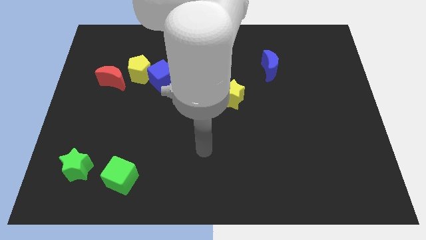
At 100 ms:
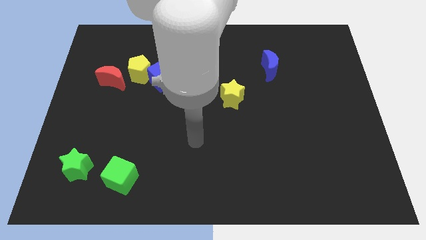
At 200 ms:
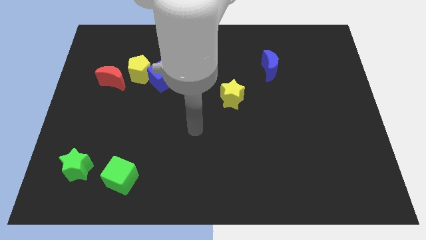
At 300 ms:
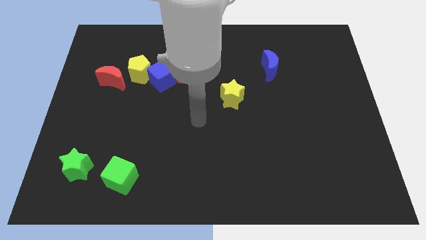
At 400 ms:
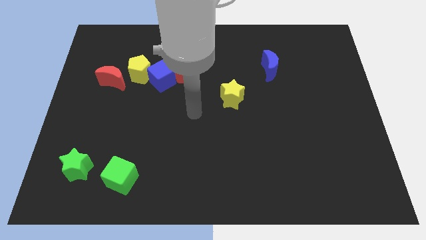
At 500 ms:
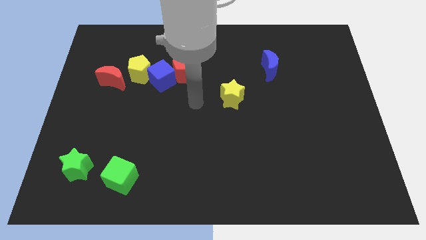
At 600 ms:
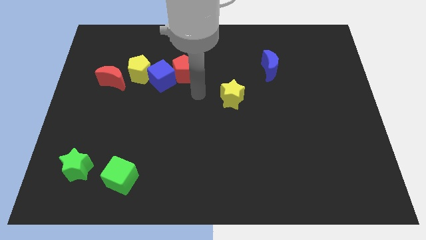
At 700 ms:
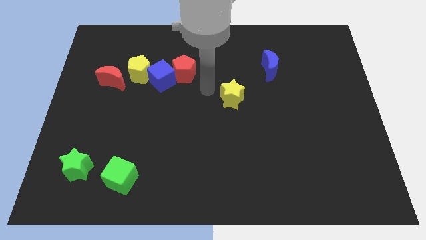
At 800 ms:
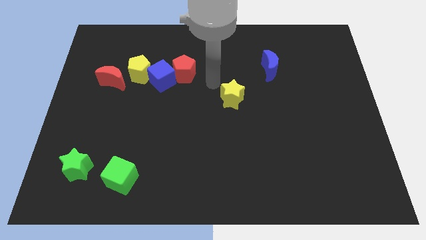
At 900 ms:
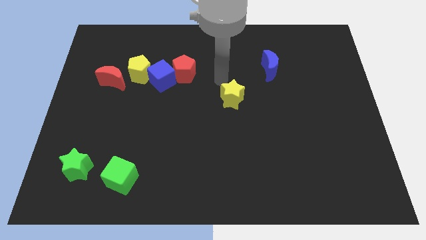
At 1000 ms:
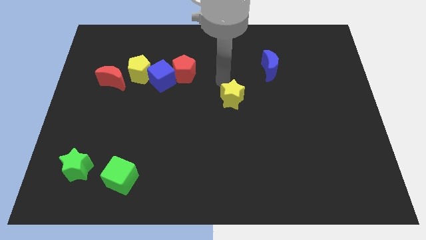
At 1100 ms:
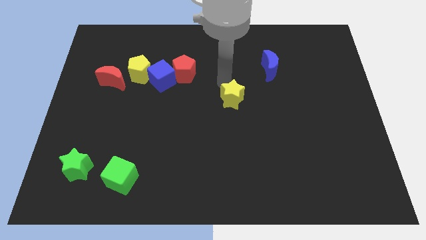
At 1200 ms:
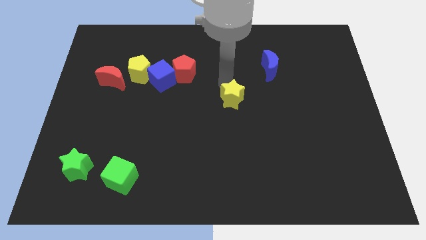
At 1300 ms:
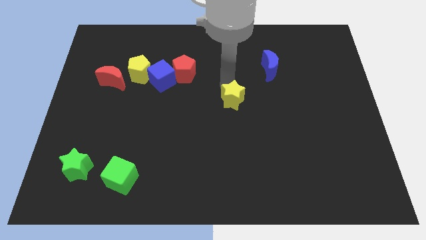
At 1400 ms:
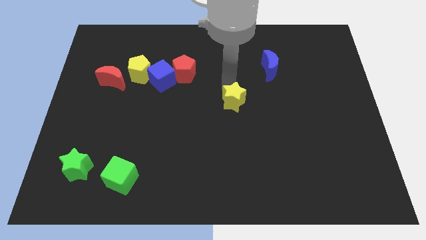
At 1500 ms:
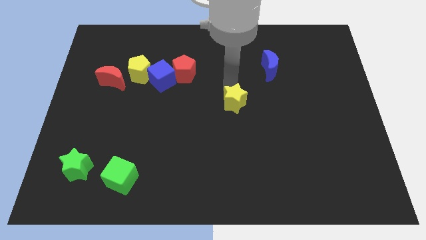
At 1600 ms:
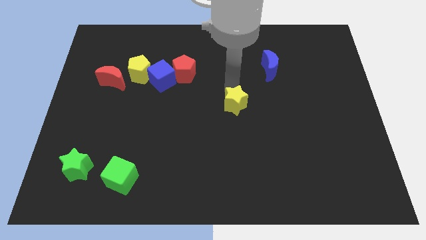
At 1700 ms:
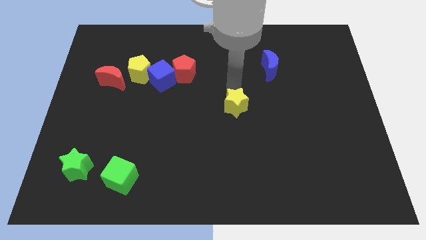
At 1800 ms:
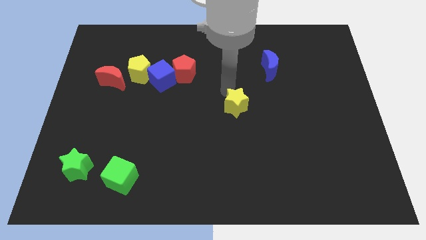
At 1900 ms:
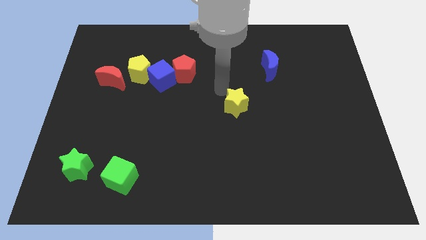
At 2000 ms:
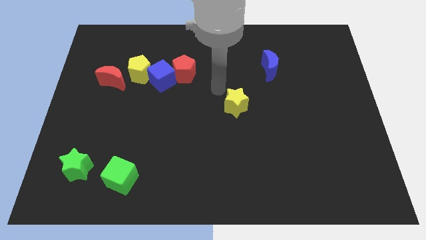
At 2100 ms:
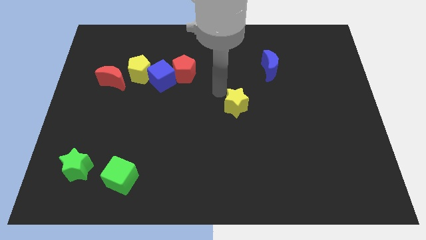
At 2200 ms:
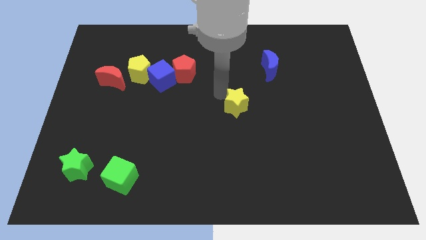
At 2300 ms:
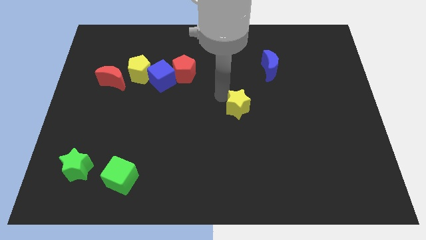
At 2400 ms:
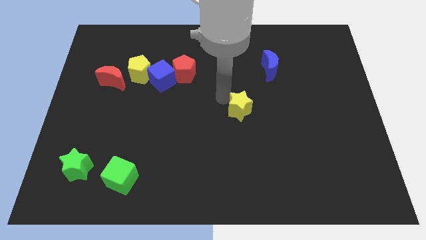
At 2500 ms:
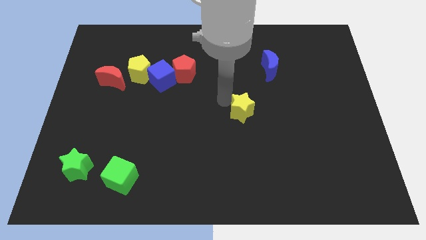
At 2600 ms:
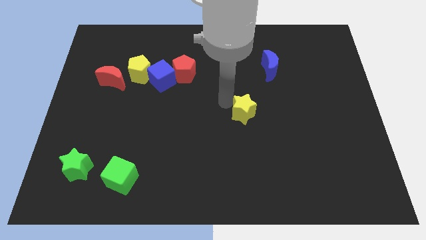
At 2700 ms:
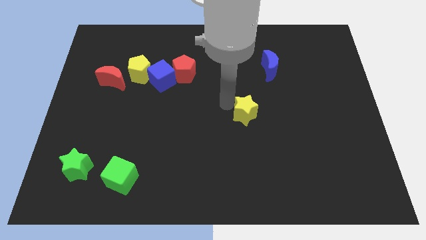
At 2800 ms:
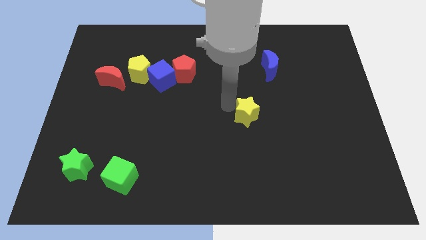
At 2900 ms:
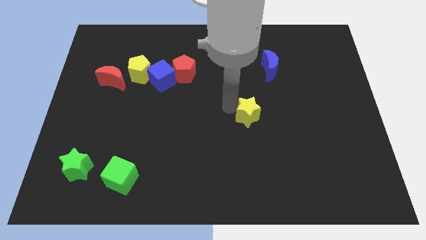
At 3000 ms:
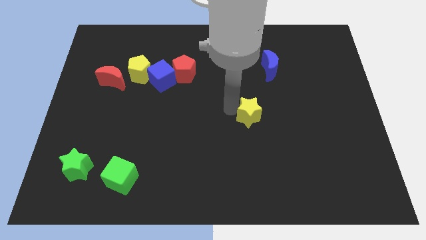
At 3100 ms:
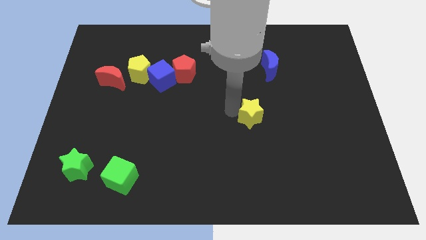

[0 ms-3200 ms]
move the yellow star down and to the right diagonally a little bit

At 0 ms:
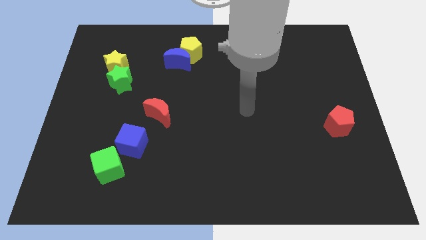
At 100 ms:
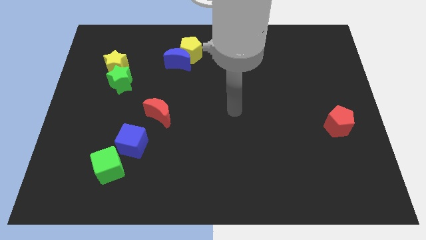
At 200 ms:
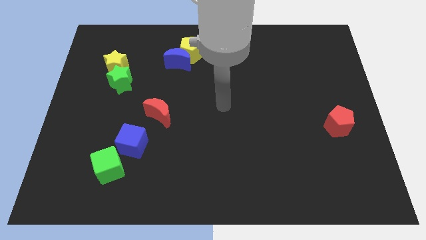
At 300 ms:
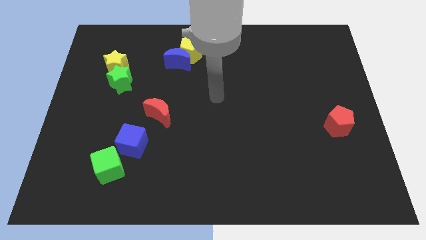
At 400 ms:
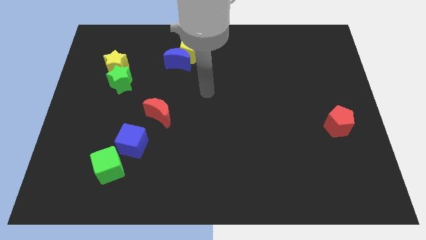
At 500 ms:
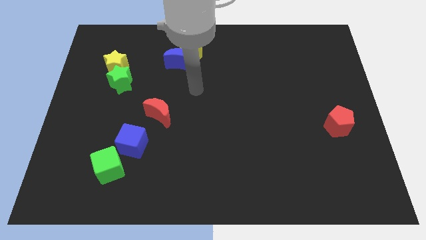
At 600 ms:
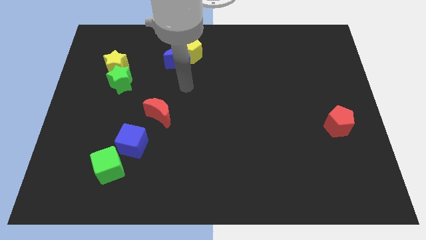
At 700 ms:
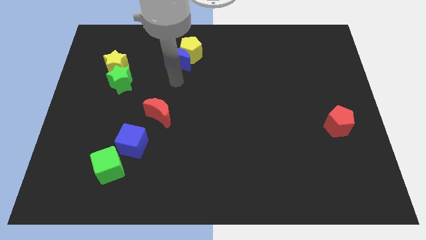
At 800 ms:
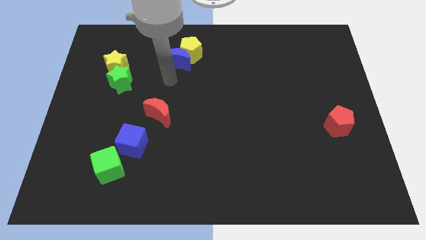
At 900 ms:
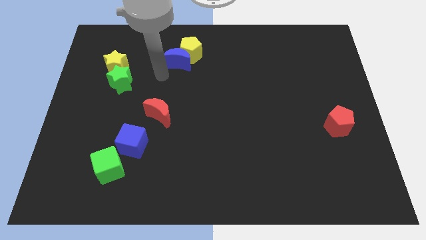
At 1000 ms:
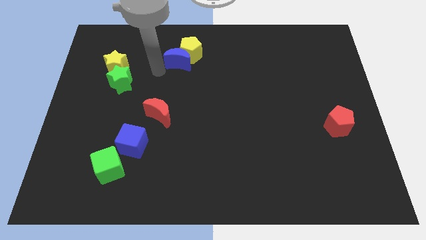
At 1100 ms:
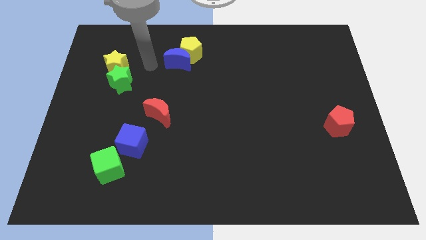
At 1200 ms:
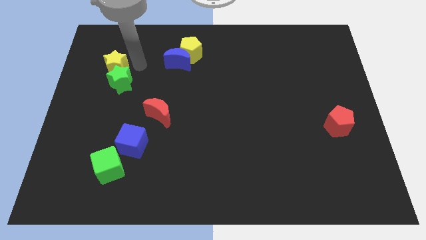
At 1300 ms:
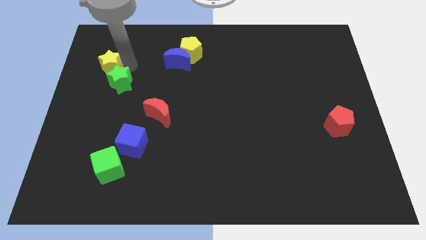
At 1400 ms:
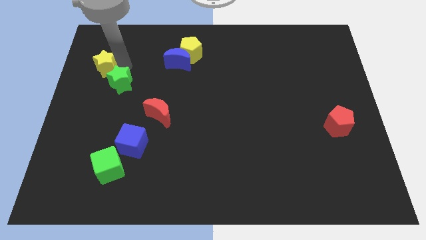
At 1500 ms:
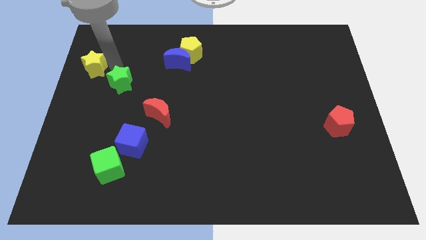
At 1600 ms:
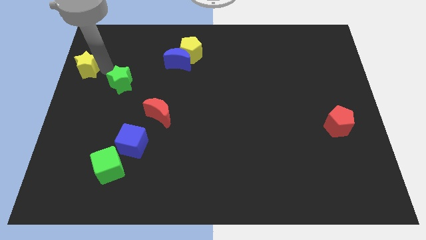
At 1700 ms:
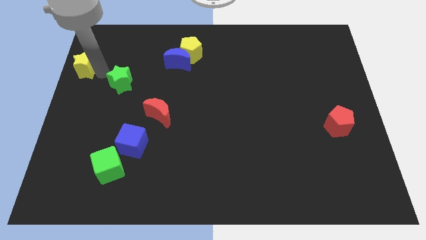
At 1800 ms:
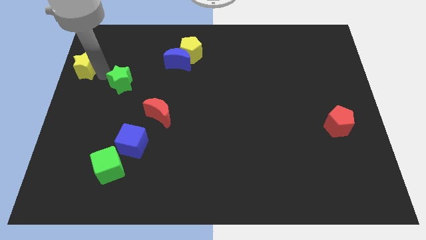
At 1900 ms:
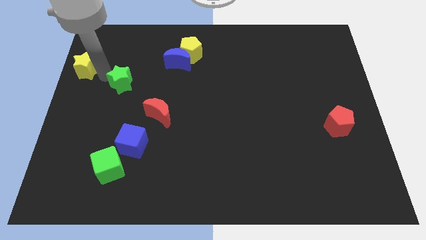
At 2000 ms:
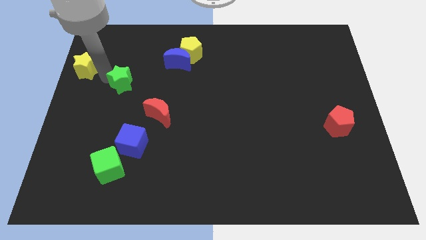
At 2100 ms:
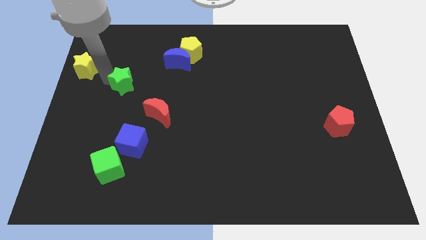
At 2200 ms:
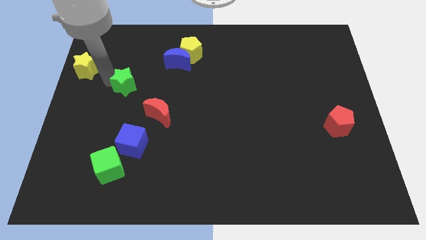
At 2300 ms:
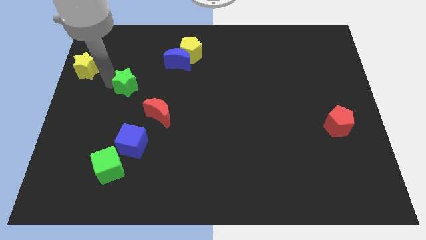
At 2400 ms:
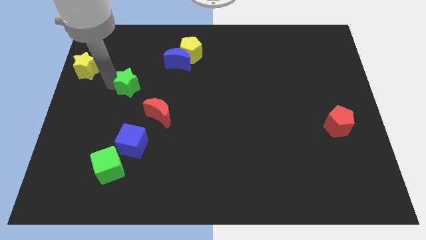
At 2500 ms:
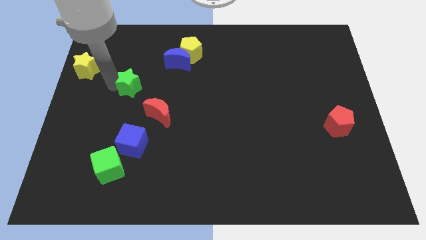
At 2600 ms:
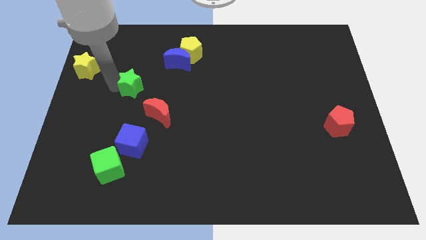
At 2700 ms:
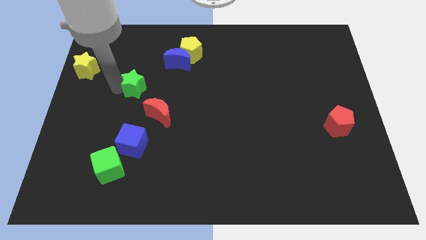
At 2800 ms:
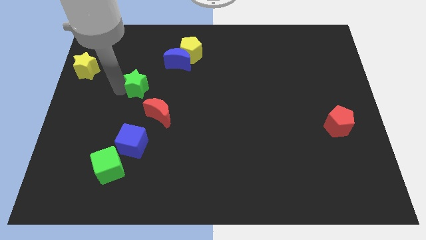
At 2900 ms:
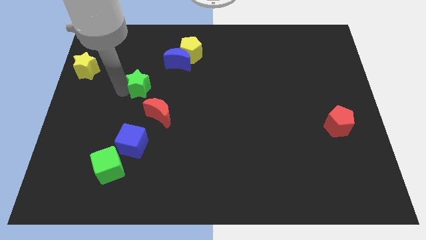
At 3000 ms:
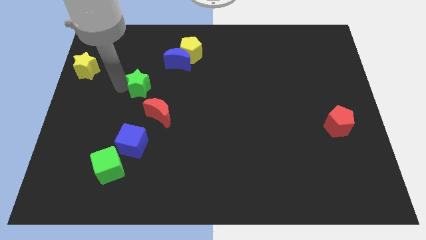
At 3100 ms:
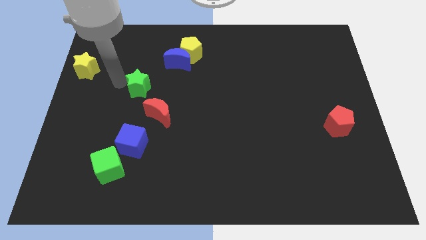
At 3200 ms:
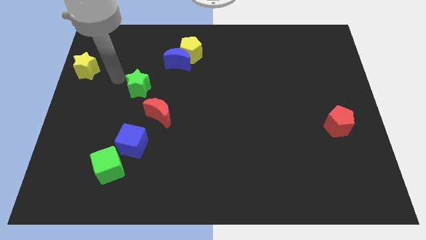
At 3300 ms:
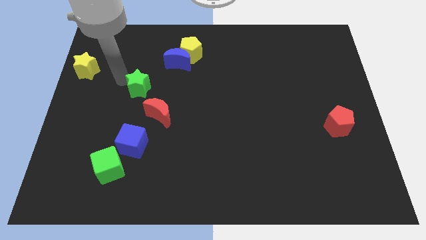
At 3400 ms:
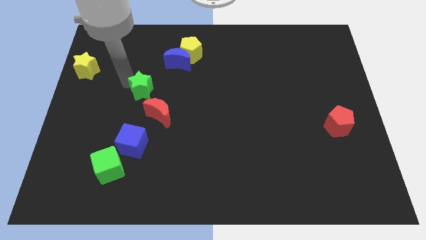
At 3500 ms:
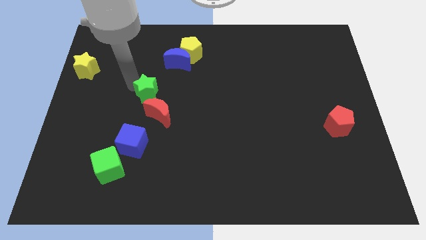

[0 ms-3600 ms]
slide the green star slightly diagonally down and to the right

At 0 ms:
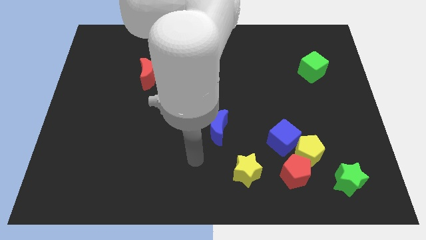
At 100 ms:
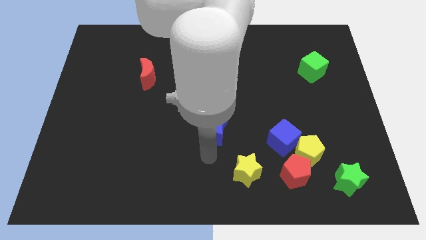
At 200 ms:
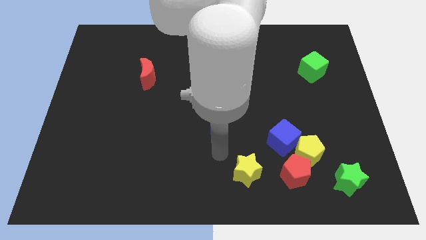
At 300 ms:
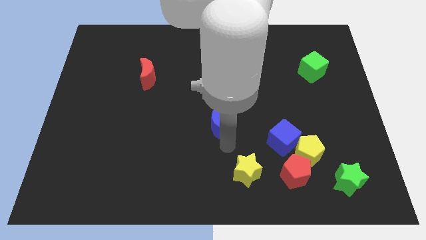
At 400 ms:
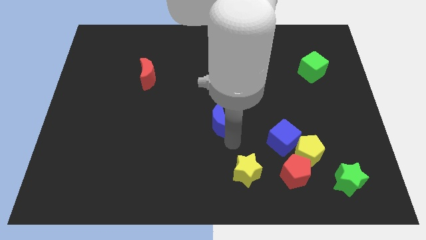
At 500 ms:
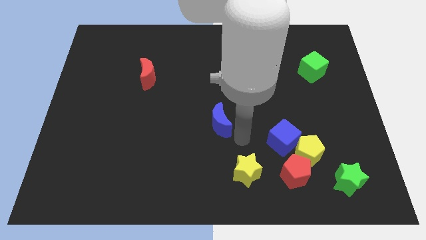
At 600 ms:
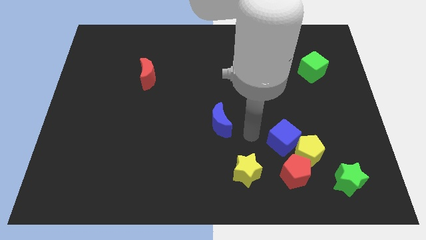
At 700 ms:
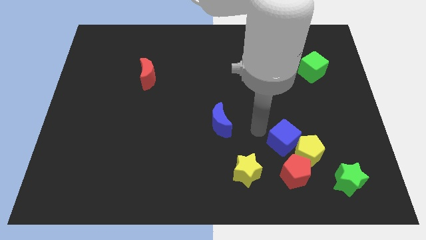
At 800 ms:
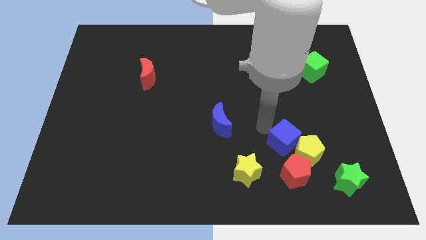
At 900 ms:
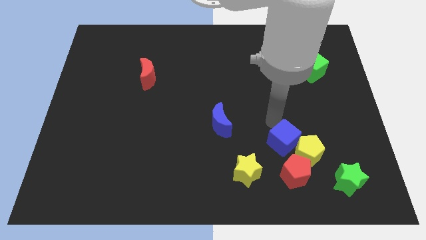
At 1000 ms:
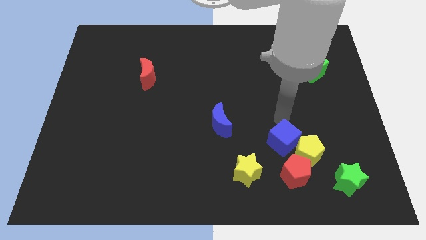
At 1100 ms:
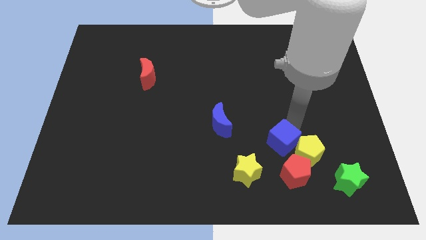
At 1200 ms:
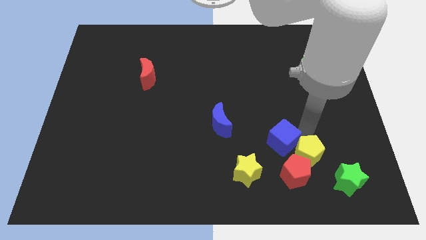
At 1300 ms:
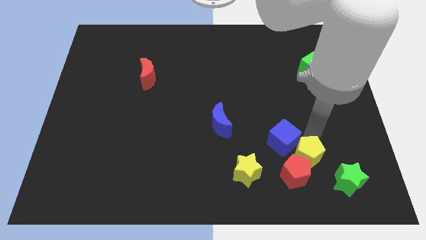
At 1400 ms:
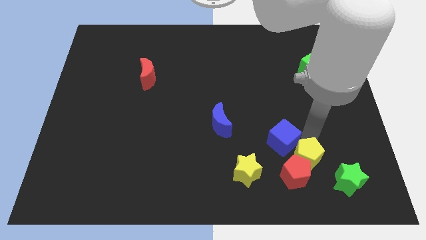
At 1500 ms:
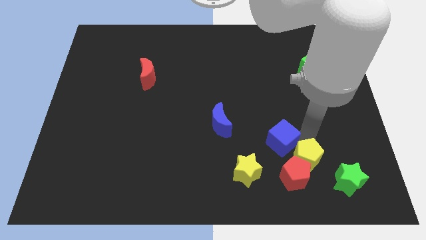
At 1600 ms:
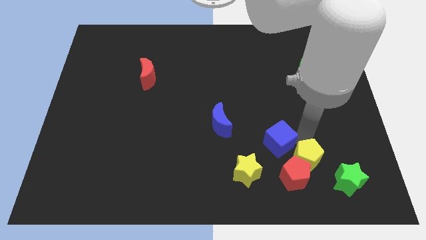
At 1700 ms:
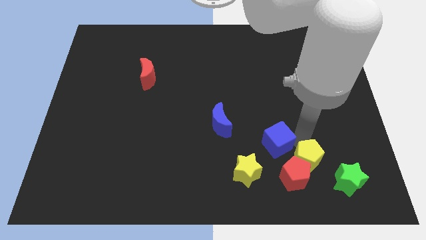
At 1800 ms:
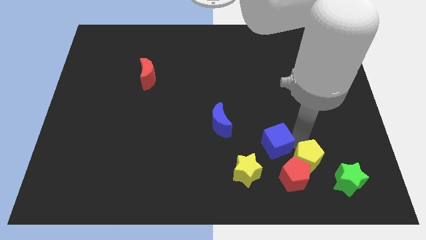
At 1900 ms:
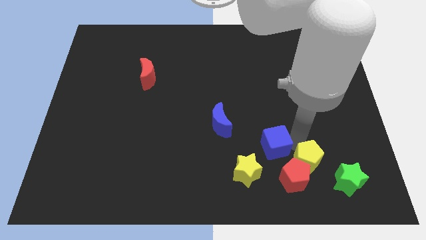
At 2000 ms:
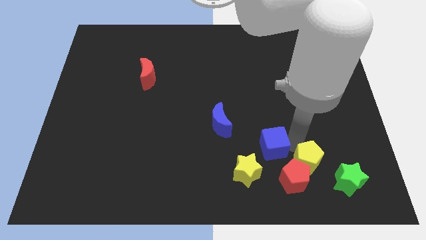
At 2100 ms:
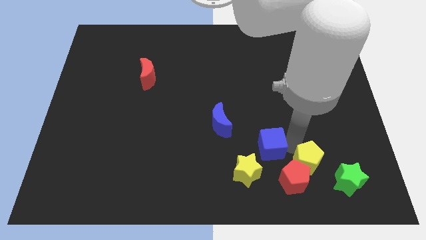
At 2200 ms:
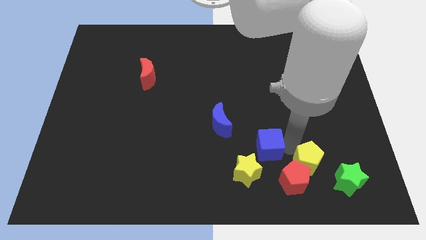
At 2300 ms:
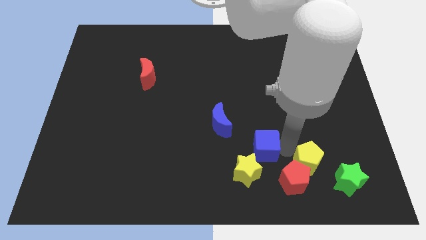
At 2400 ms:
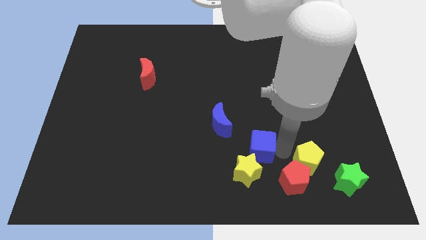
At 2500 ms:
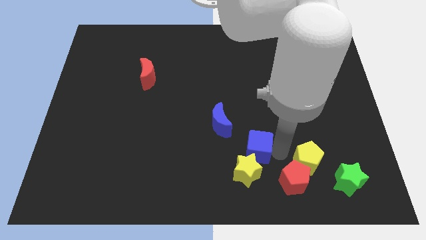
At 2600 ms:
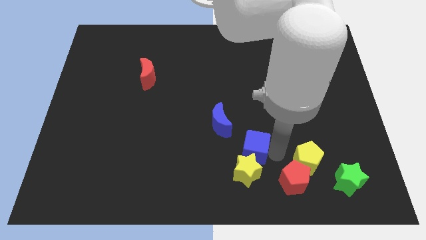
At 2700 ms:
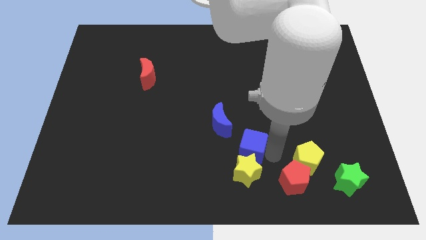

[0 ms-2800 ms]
slide the blue cube a little left
